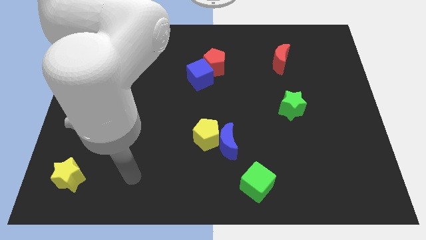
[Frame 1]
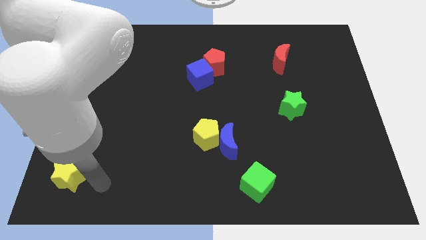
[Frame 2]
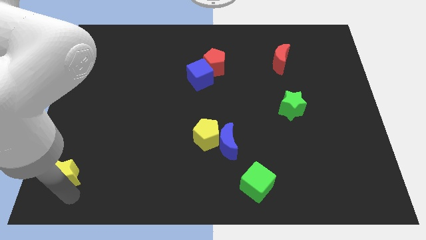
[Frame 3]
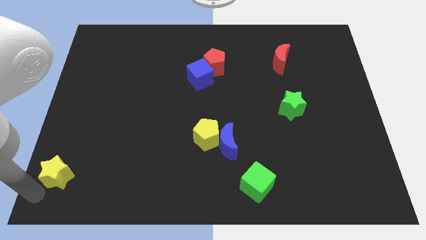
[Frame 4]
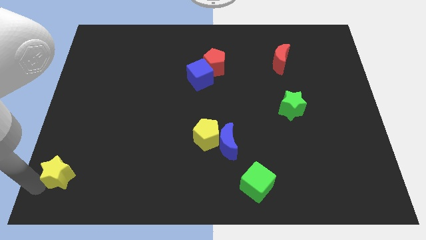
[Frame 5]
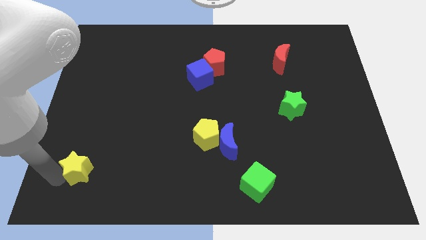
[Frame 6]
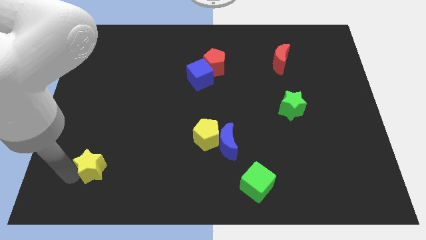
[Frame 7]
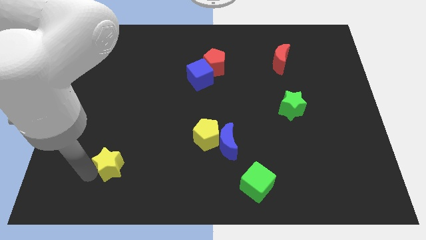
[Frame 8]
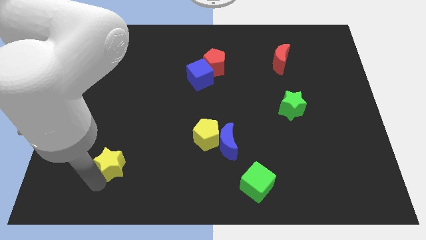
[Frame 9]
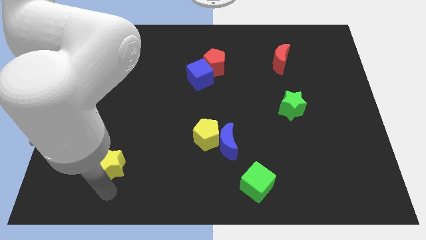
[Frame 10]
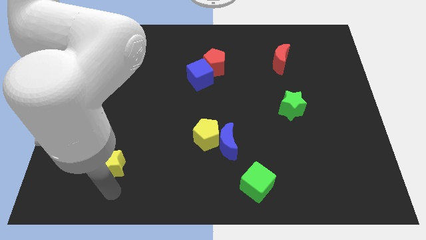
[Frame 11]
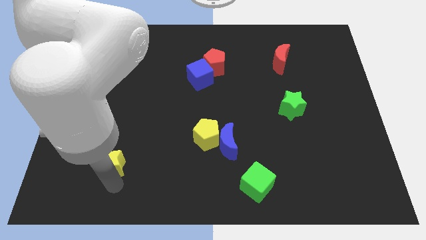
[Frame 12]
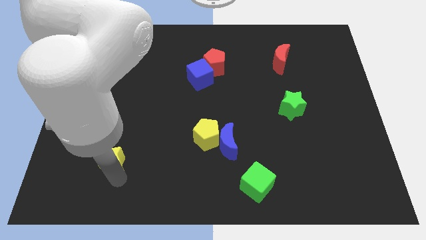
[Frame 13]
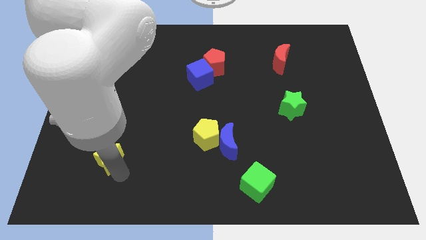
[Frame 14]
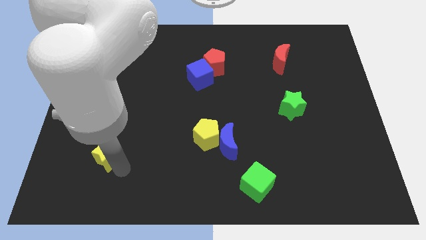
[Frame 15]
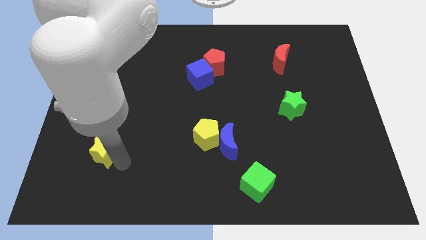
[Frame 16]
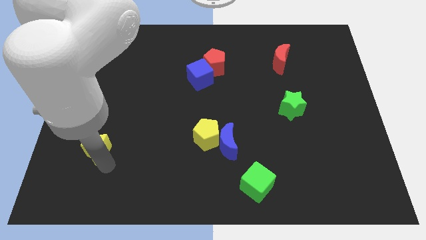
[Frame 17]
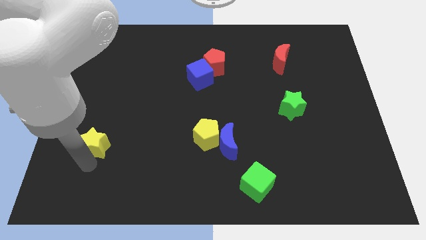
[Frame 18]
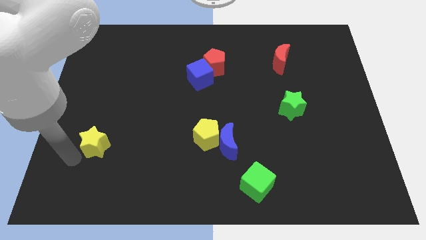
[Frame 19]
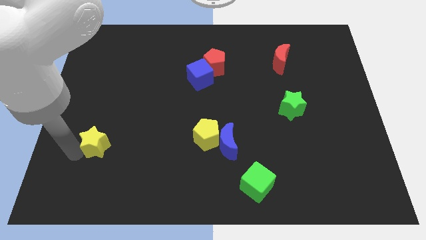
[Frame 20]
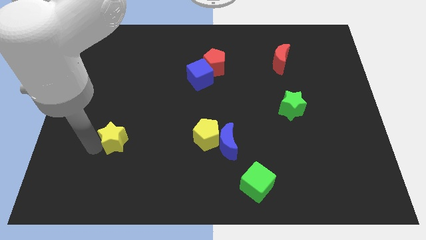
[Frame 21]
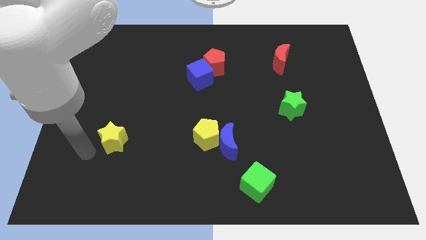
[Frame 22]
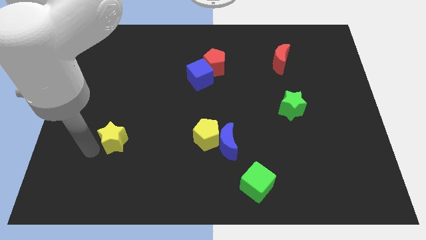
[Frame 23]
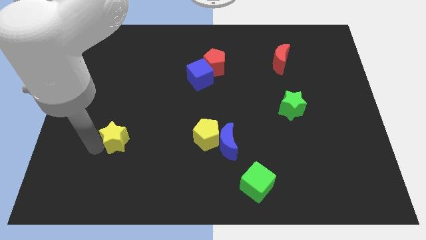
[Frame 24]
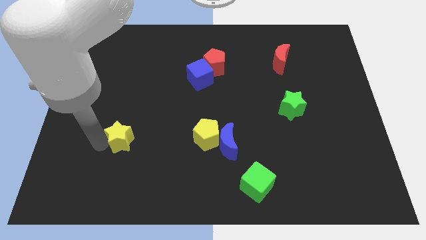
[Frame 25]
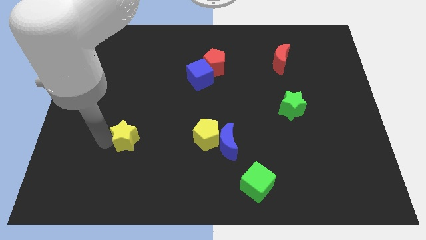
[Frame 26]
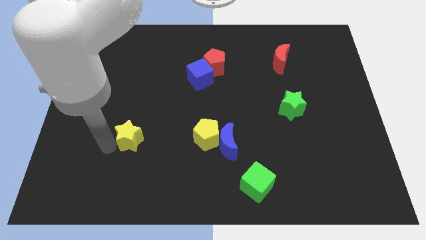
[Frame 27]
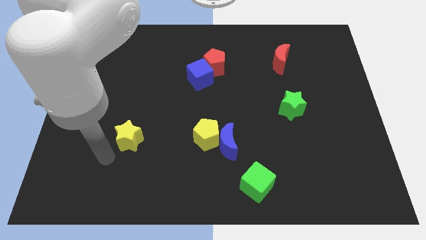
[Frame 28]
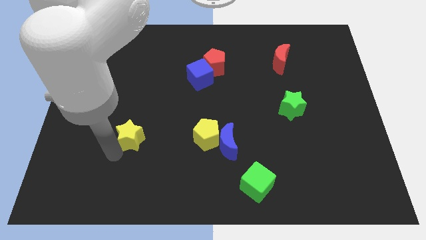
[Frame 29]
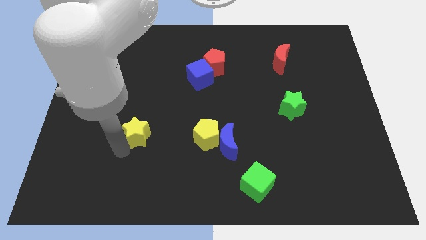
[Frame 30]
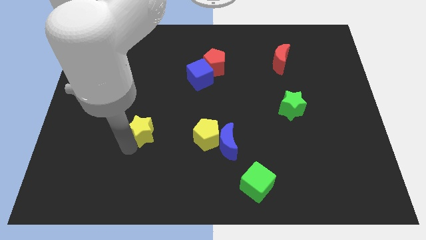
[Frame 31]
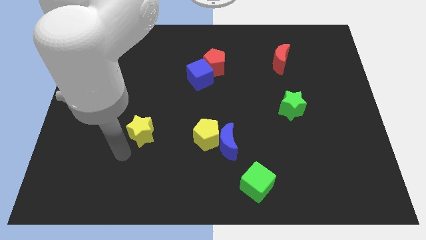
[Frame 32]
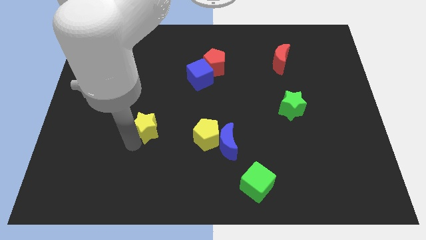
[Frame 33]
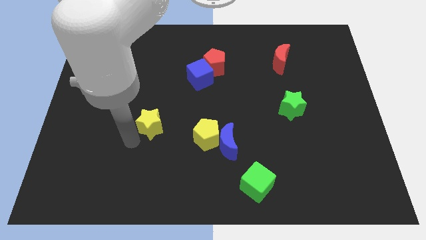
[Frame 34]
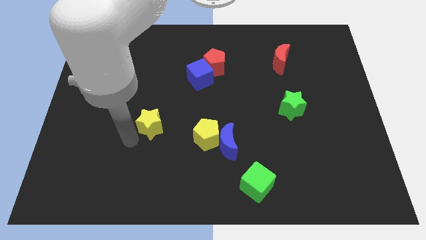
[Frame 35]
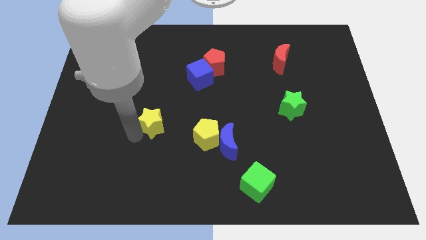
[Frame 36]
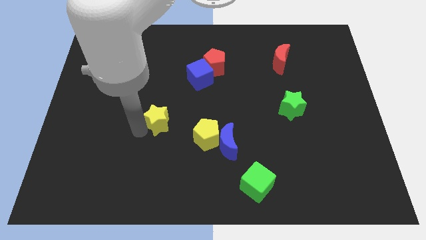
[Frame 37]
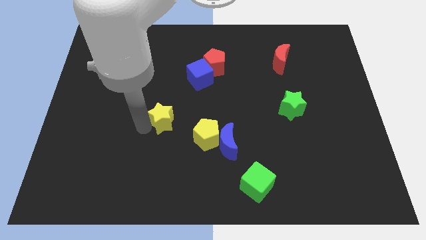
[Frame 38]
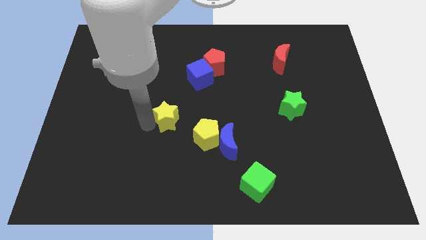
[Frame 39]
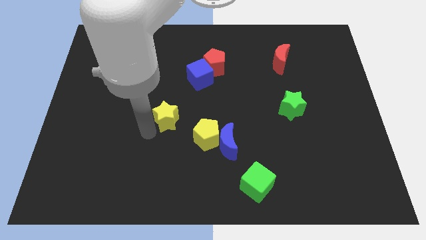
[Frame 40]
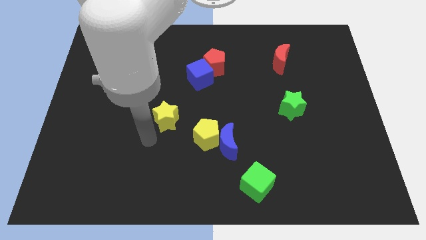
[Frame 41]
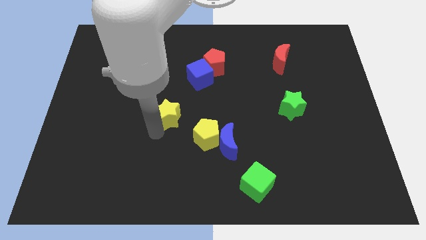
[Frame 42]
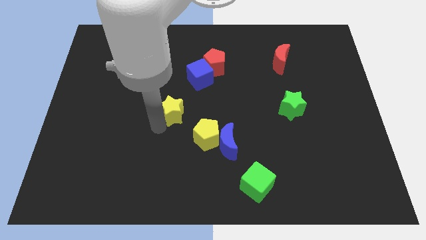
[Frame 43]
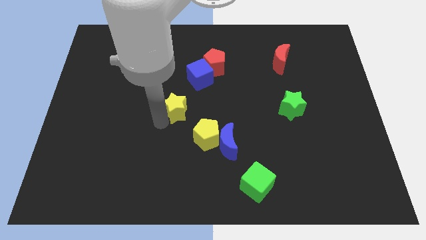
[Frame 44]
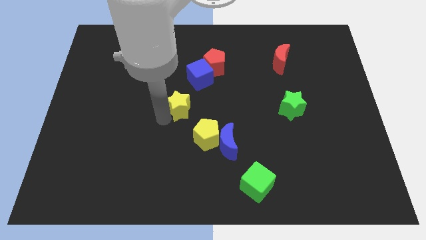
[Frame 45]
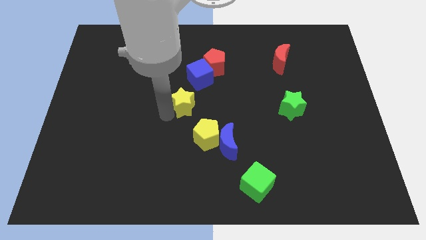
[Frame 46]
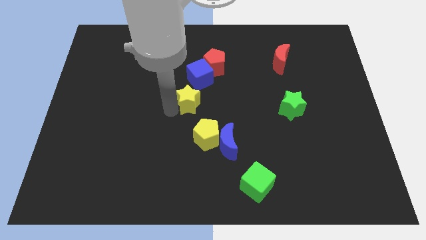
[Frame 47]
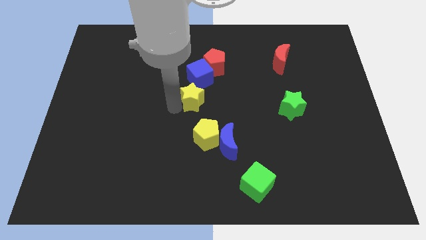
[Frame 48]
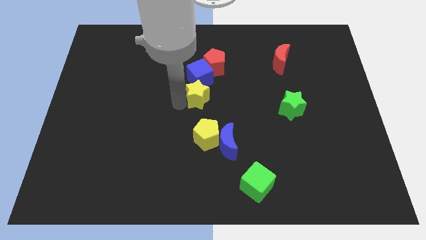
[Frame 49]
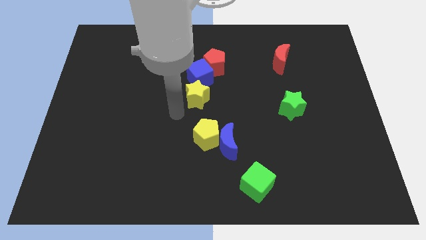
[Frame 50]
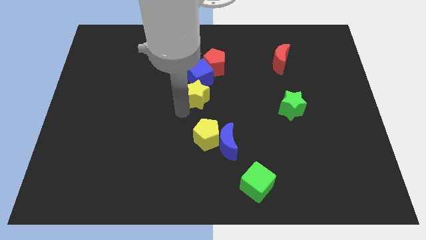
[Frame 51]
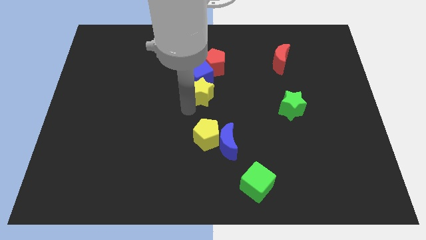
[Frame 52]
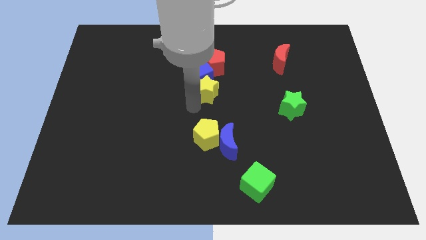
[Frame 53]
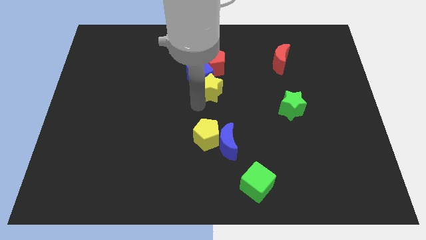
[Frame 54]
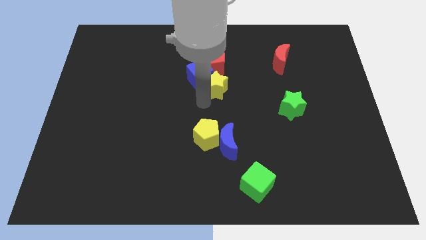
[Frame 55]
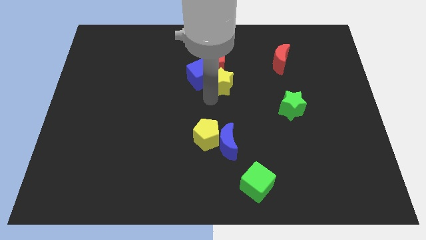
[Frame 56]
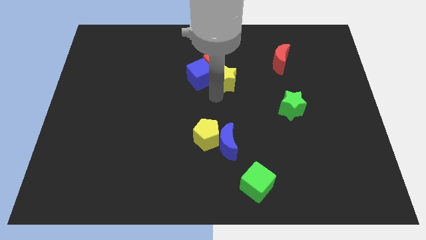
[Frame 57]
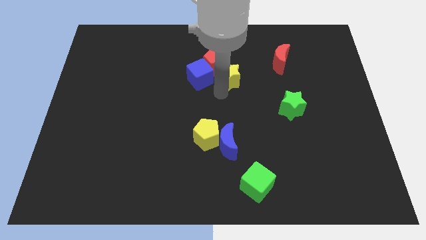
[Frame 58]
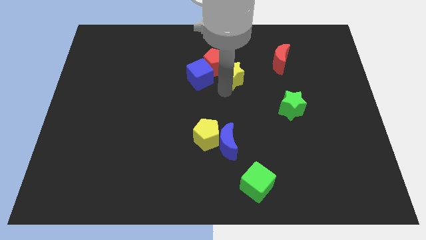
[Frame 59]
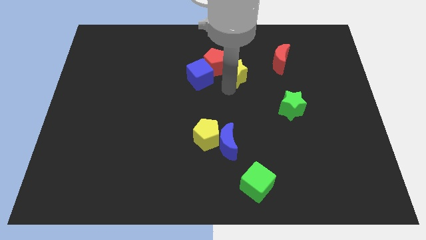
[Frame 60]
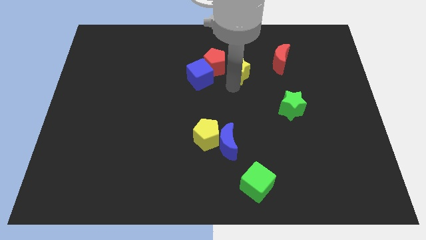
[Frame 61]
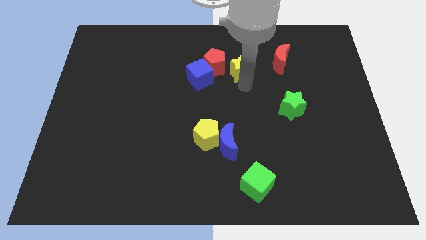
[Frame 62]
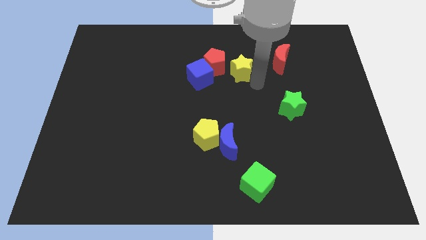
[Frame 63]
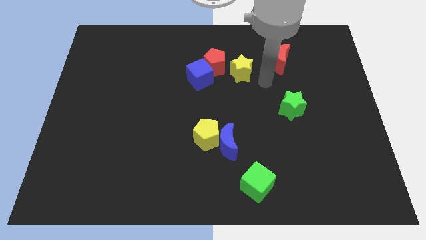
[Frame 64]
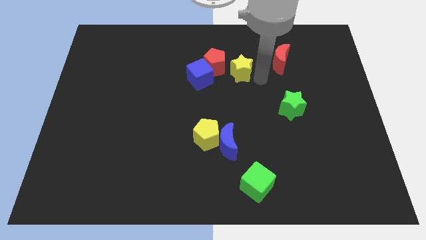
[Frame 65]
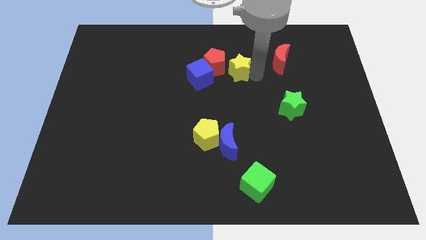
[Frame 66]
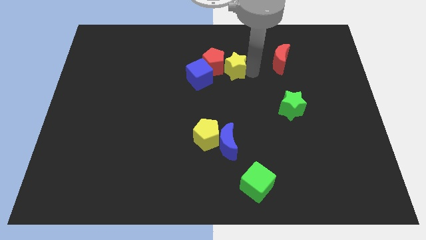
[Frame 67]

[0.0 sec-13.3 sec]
push the yellow star diagonally up and to the right of the blue cube

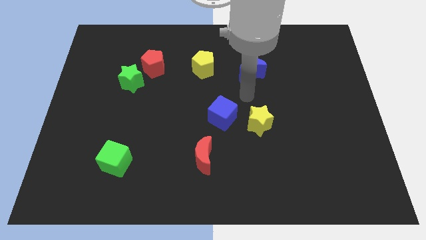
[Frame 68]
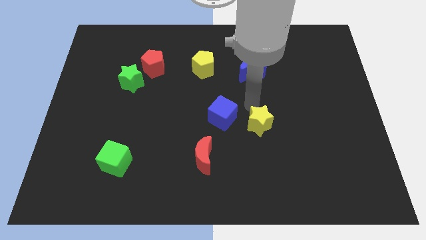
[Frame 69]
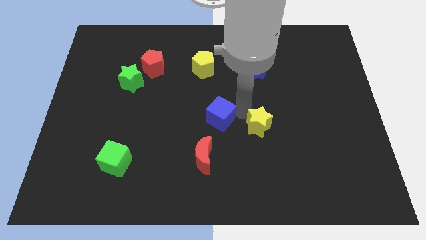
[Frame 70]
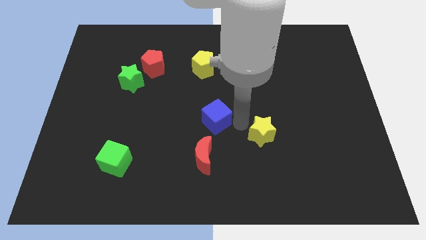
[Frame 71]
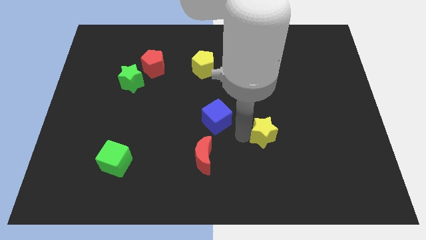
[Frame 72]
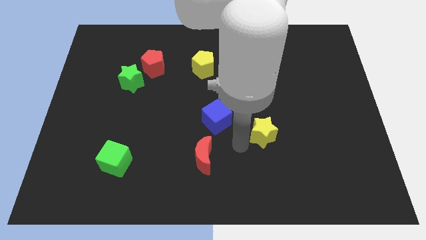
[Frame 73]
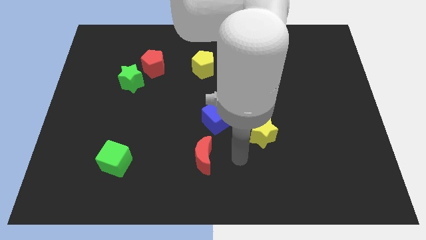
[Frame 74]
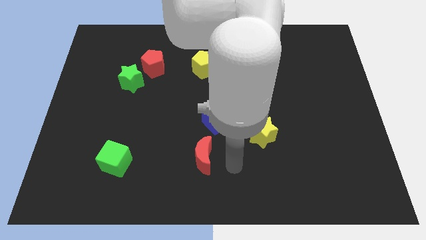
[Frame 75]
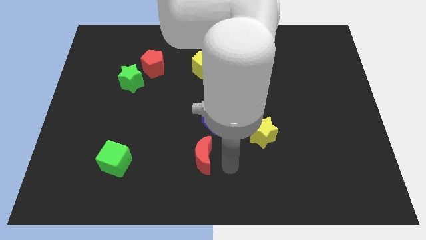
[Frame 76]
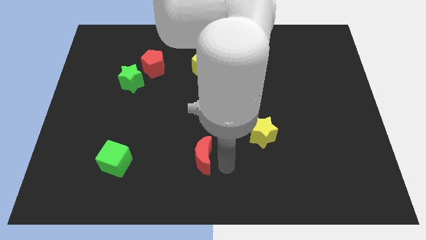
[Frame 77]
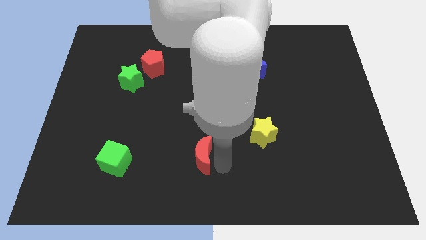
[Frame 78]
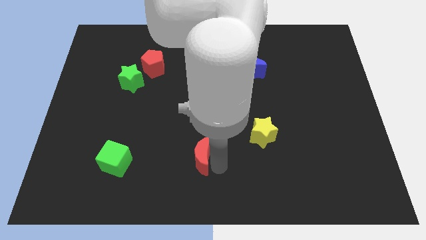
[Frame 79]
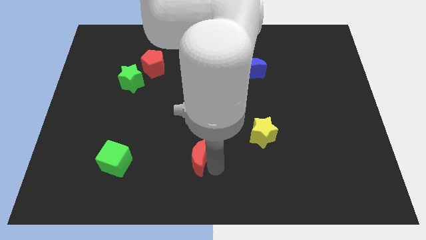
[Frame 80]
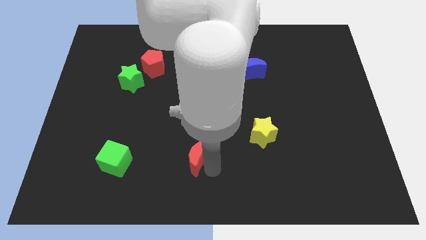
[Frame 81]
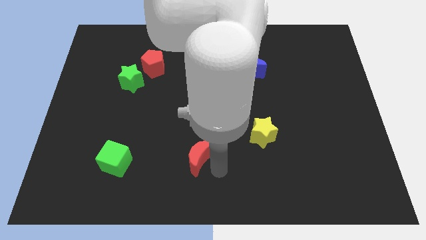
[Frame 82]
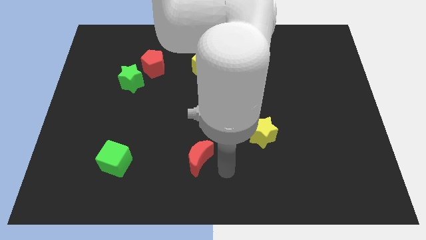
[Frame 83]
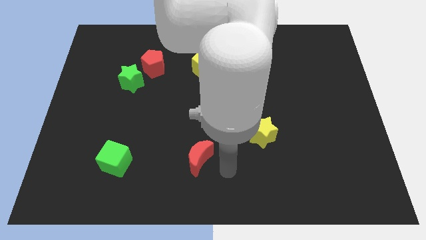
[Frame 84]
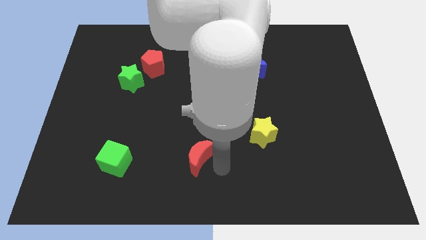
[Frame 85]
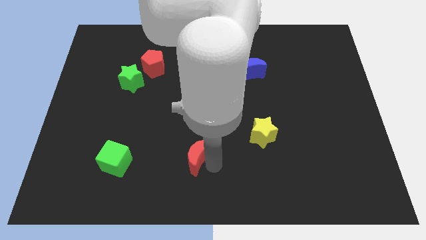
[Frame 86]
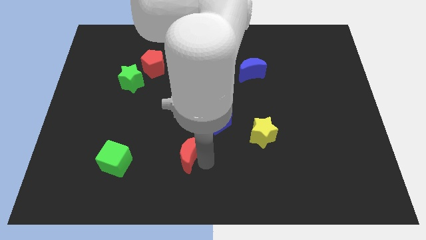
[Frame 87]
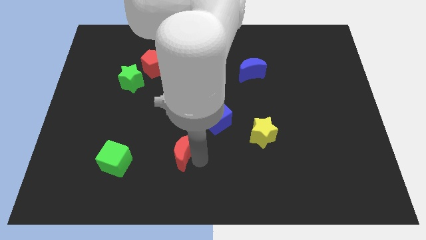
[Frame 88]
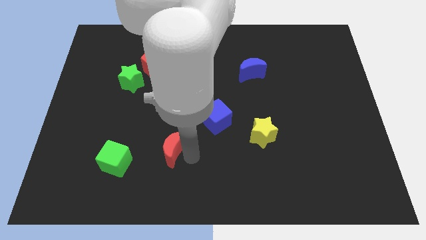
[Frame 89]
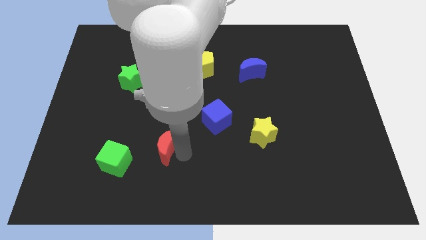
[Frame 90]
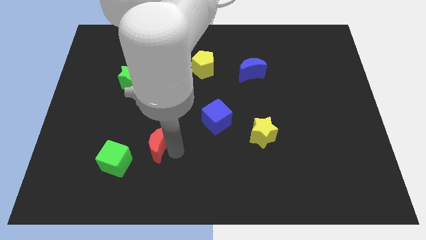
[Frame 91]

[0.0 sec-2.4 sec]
move the red moon to the top right of the green cube
